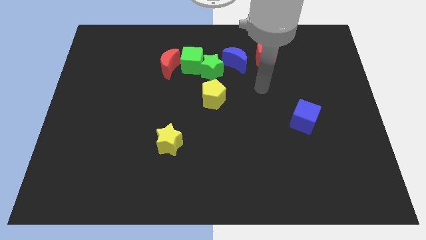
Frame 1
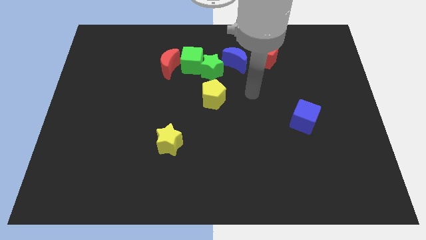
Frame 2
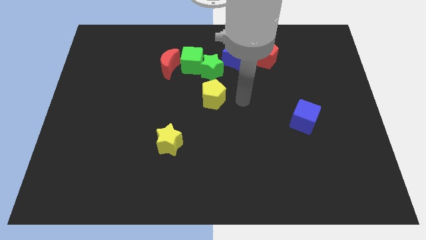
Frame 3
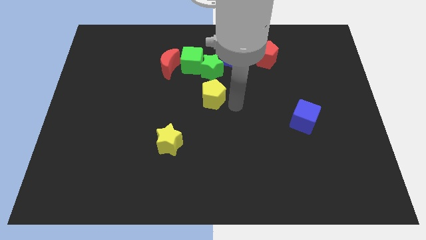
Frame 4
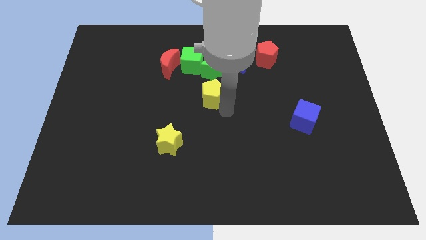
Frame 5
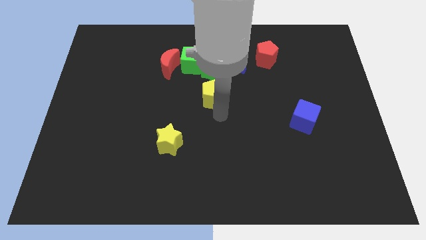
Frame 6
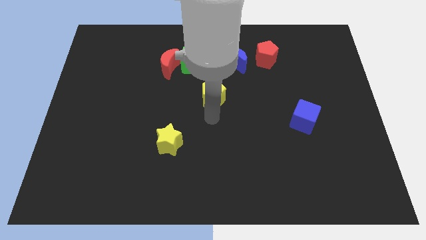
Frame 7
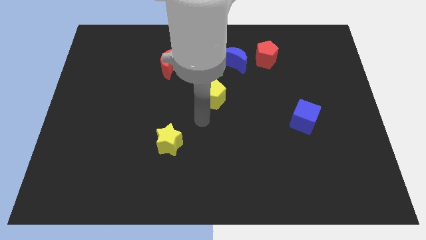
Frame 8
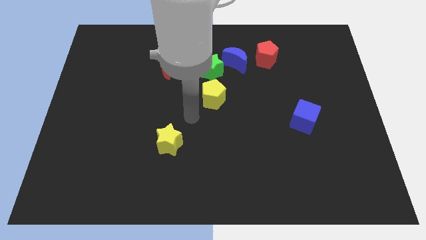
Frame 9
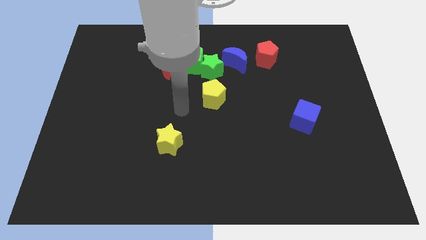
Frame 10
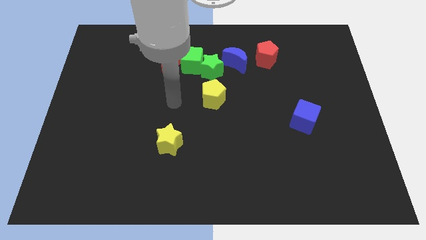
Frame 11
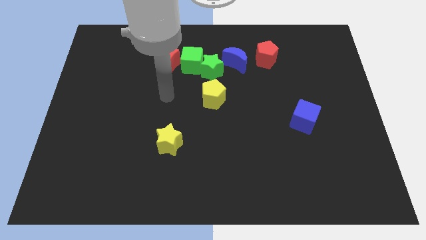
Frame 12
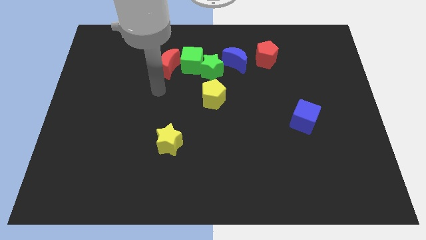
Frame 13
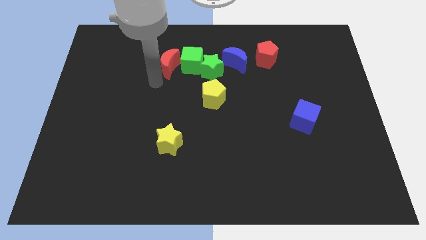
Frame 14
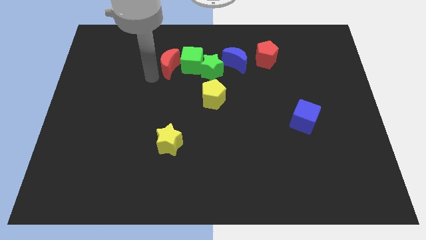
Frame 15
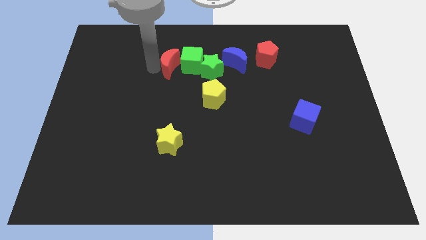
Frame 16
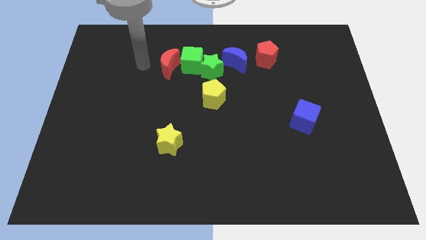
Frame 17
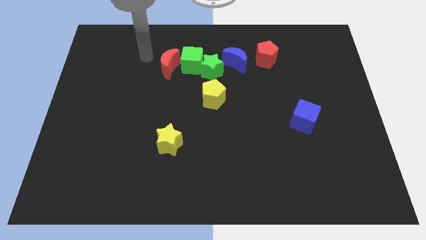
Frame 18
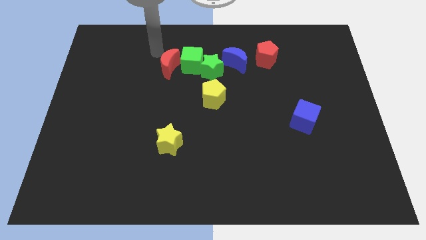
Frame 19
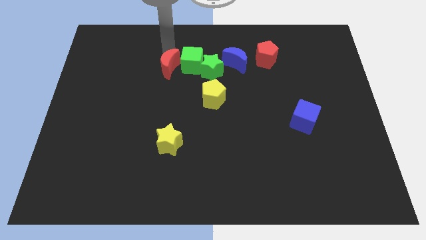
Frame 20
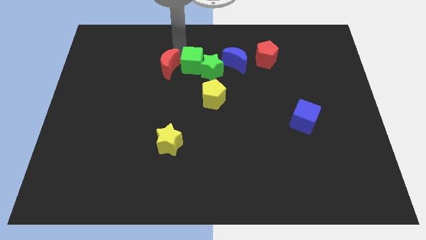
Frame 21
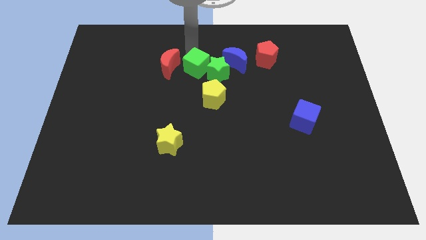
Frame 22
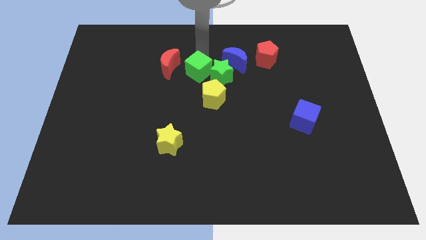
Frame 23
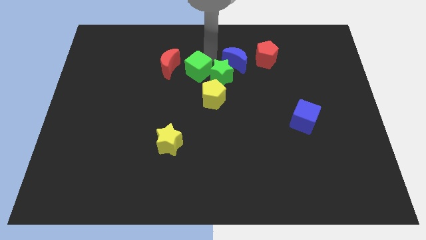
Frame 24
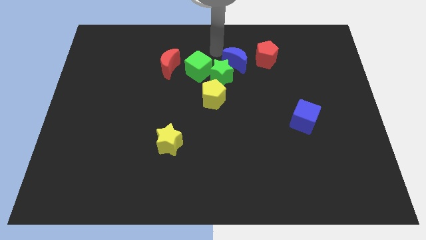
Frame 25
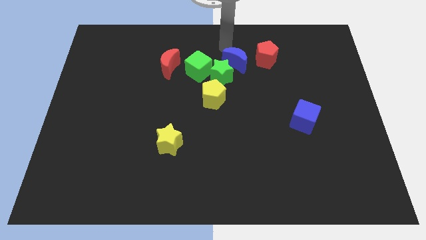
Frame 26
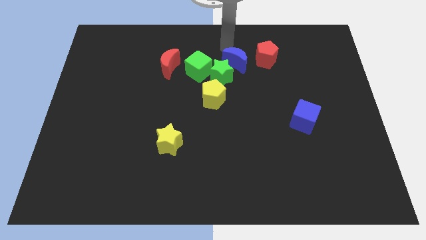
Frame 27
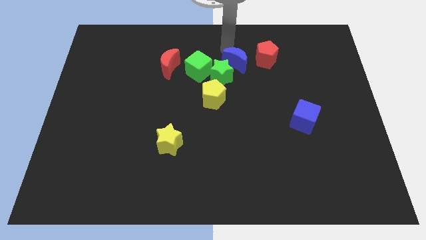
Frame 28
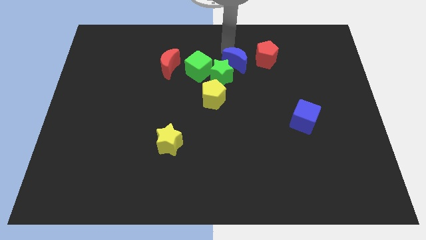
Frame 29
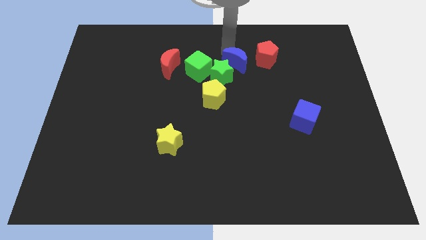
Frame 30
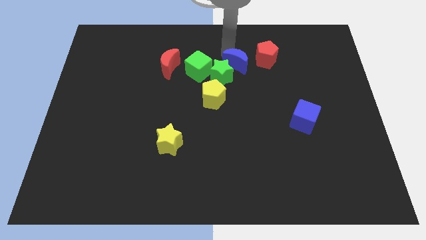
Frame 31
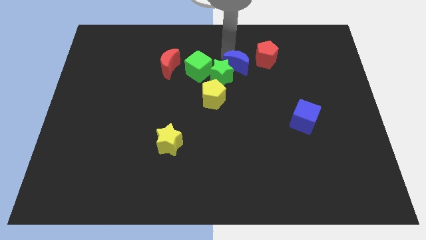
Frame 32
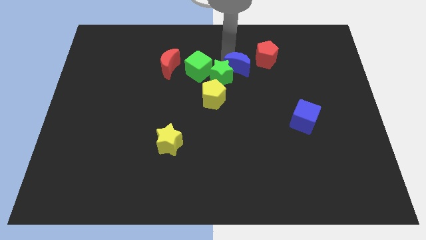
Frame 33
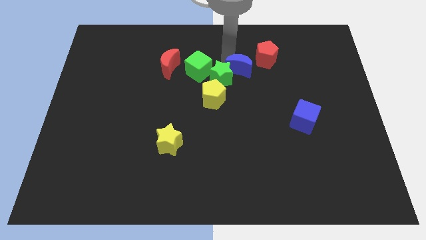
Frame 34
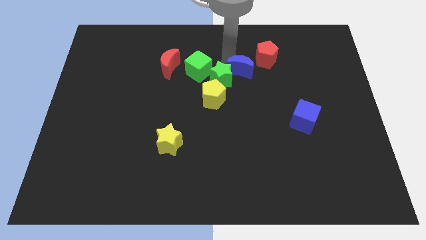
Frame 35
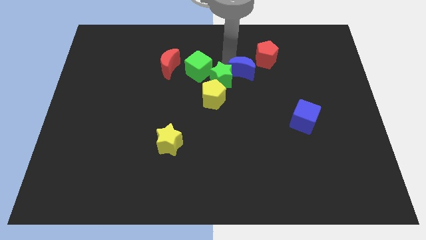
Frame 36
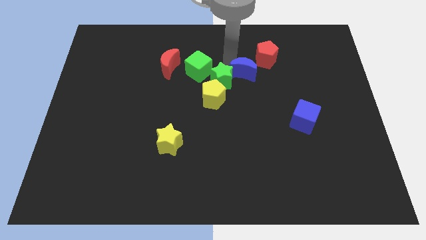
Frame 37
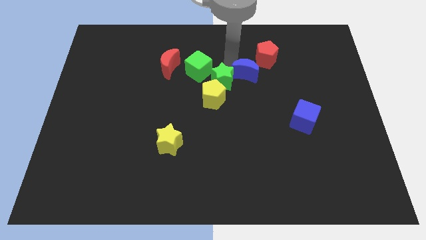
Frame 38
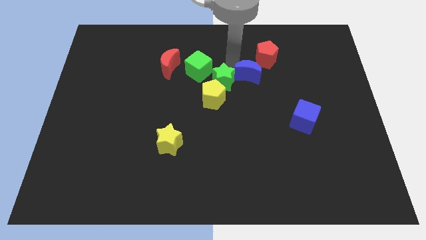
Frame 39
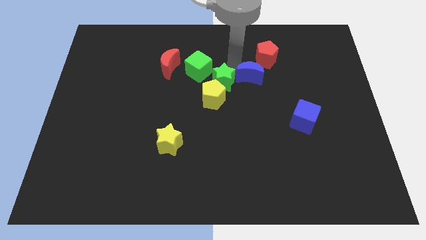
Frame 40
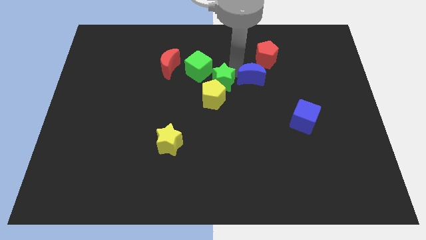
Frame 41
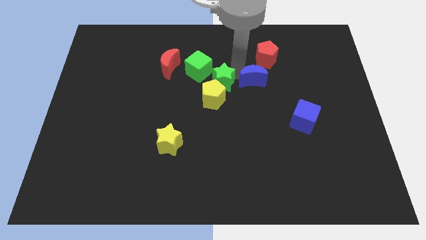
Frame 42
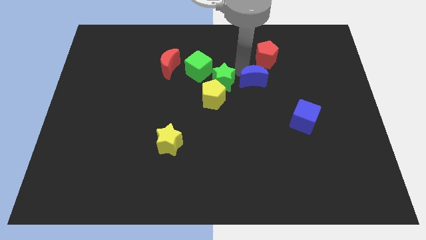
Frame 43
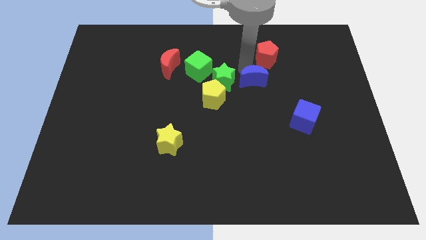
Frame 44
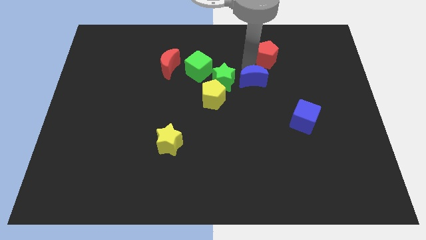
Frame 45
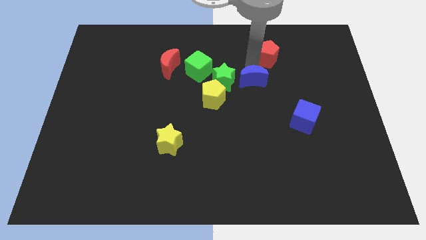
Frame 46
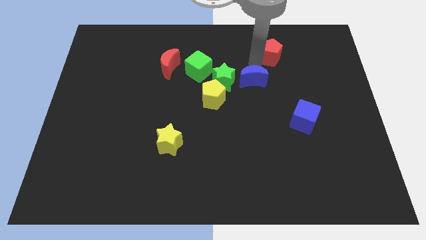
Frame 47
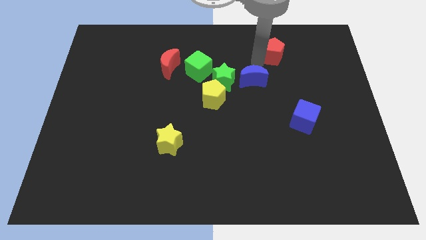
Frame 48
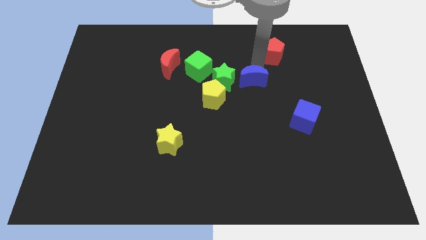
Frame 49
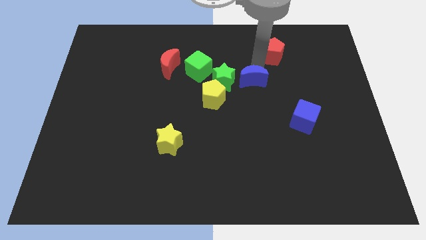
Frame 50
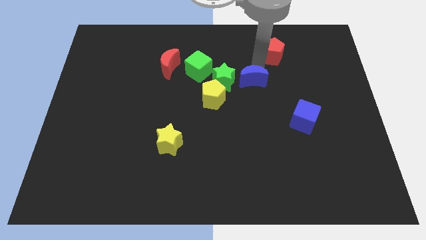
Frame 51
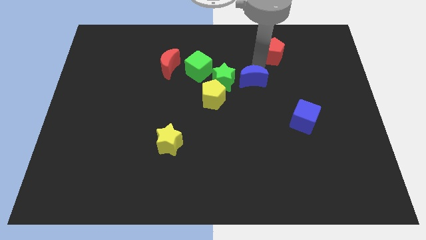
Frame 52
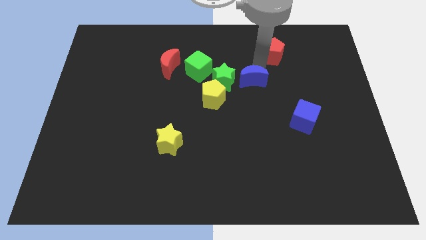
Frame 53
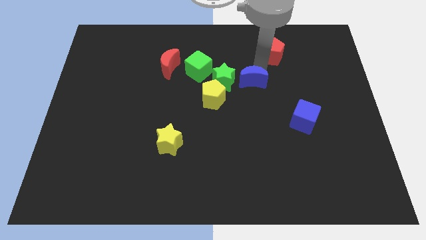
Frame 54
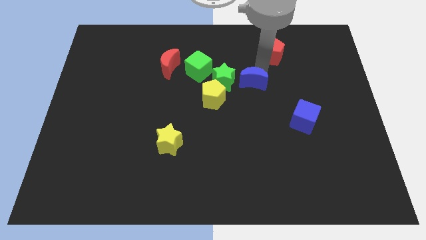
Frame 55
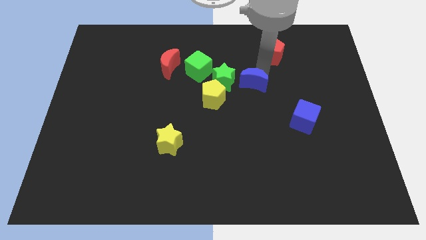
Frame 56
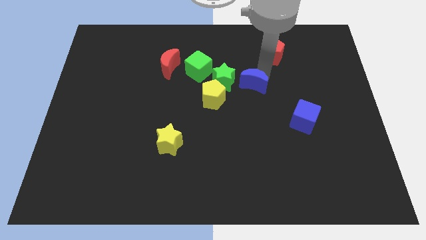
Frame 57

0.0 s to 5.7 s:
slightly push the blue moon downwards

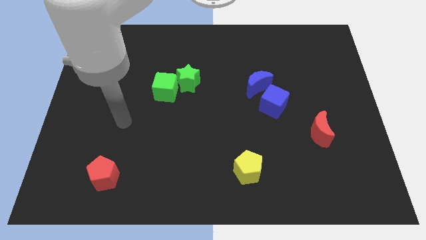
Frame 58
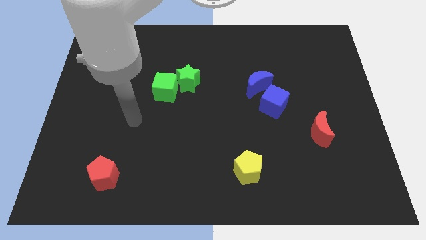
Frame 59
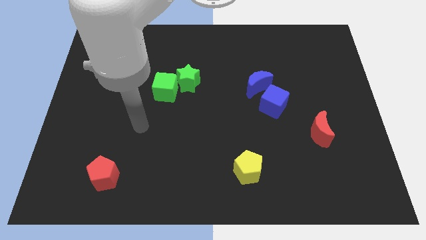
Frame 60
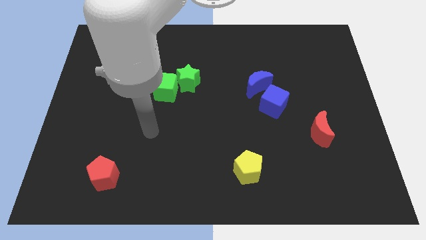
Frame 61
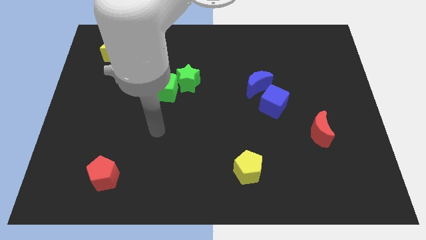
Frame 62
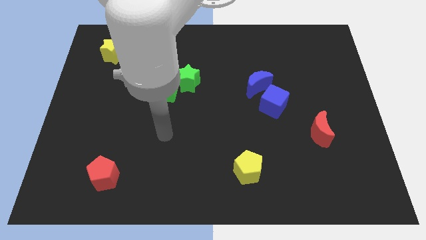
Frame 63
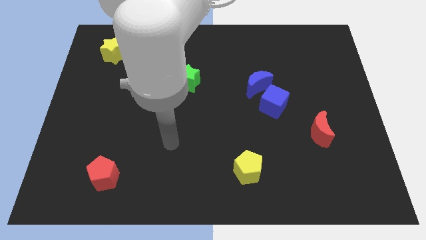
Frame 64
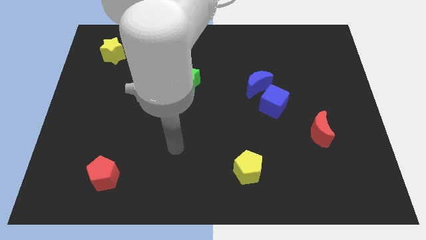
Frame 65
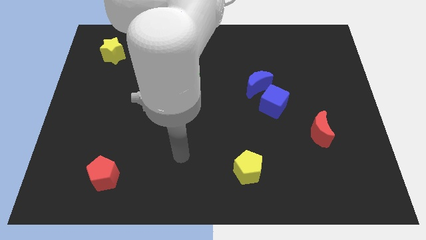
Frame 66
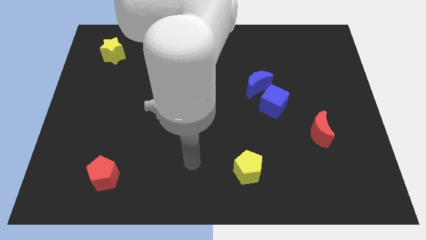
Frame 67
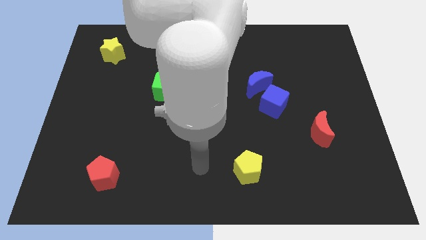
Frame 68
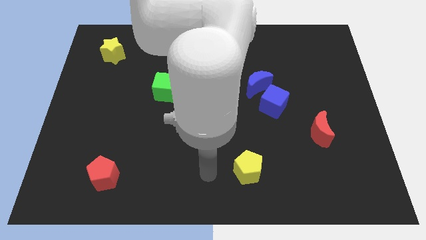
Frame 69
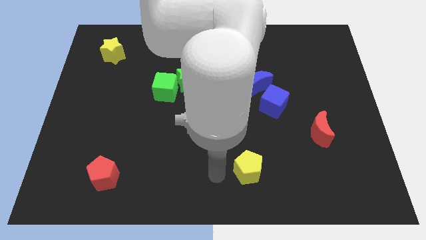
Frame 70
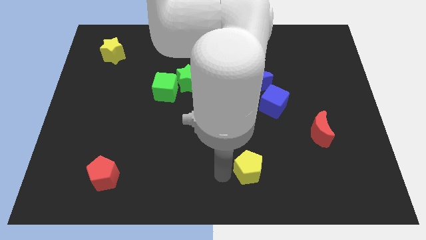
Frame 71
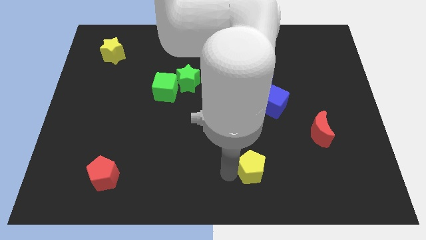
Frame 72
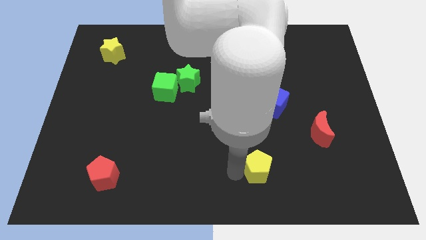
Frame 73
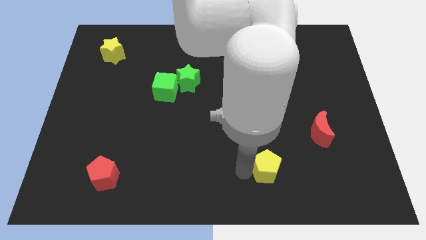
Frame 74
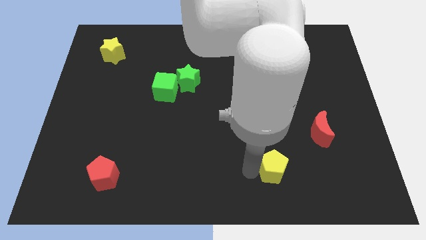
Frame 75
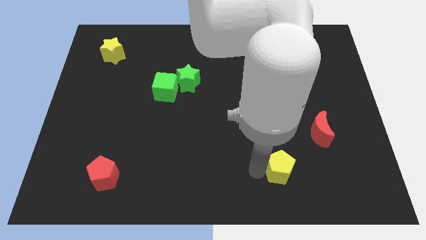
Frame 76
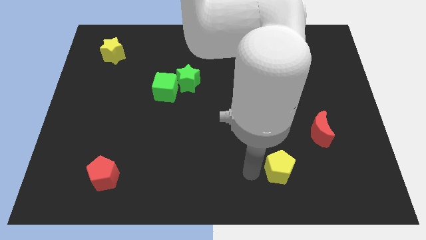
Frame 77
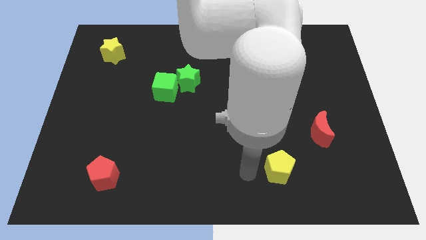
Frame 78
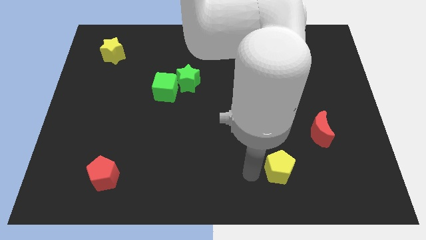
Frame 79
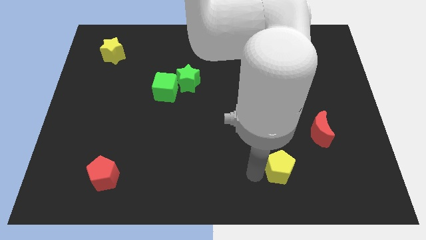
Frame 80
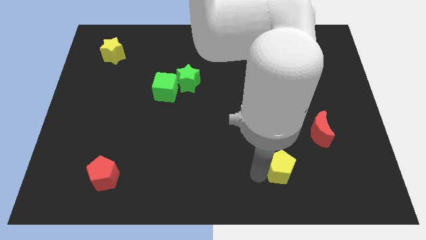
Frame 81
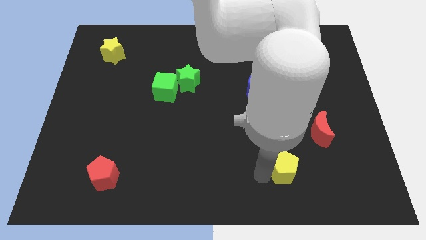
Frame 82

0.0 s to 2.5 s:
slide the yellow pentagon somewhat right
